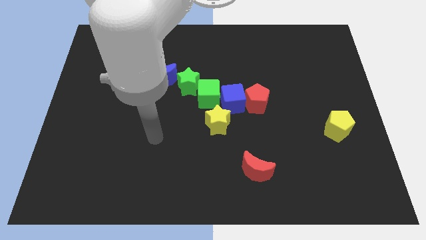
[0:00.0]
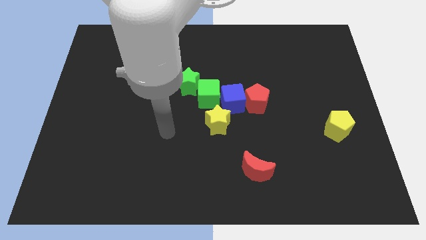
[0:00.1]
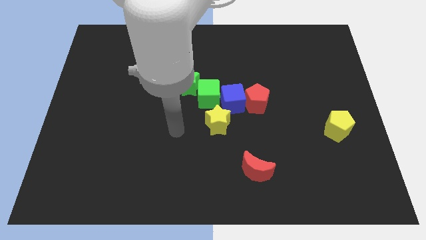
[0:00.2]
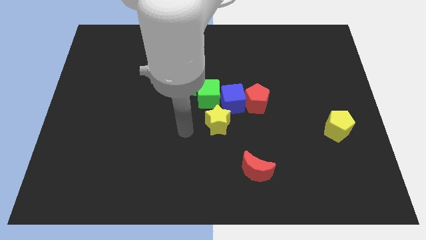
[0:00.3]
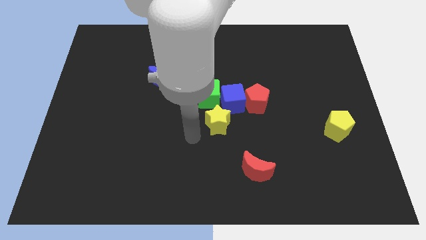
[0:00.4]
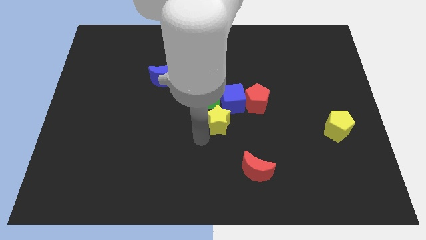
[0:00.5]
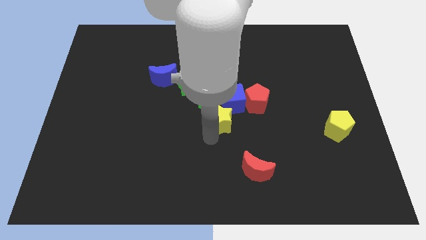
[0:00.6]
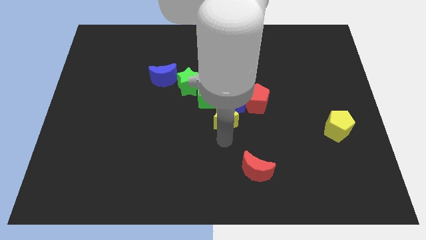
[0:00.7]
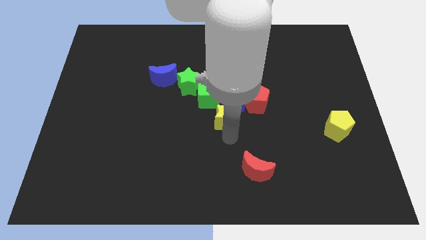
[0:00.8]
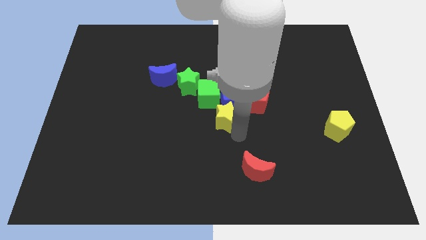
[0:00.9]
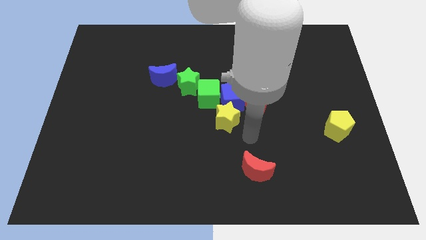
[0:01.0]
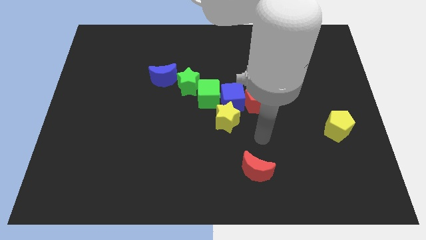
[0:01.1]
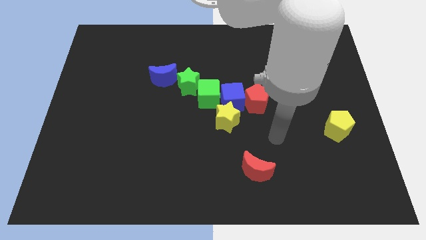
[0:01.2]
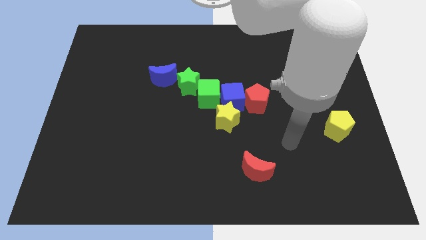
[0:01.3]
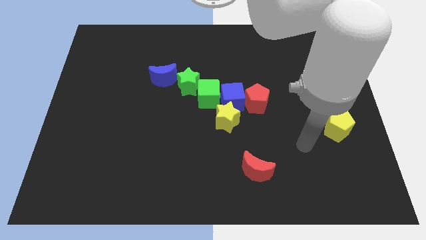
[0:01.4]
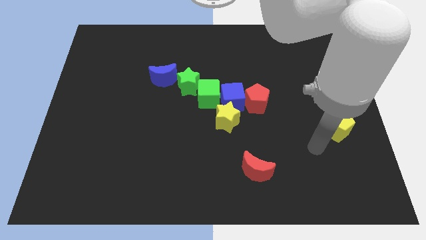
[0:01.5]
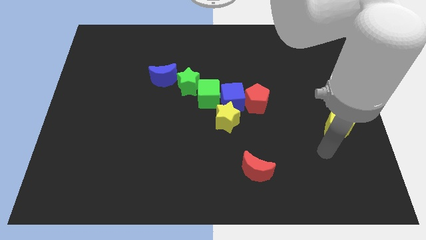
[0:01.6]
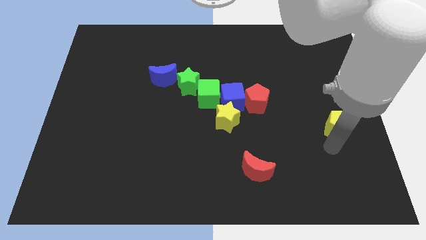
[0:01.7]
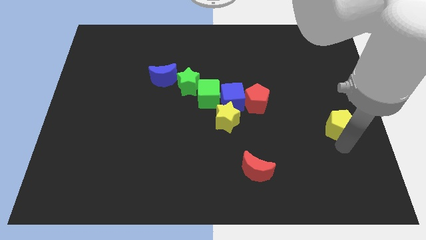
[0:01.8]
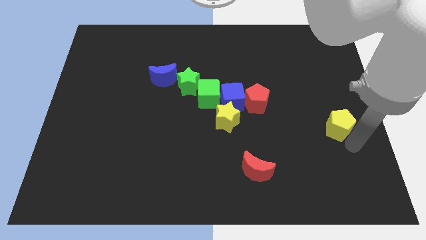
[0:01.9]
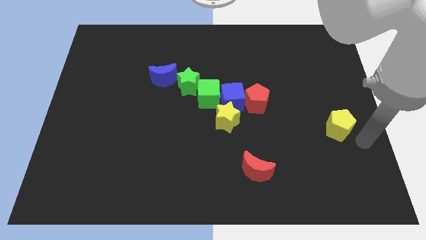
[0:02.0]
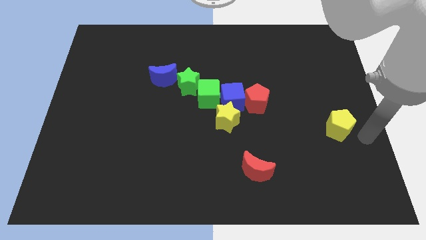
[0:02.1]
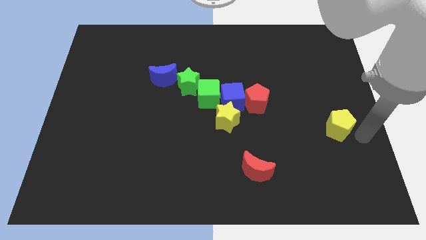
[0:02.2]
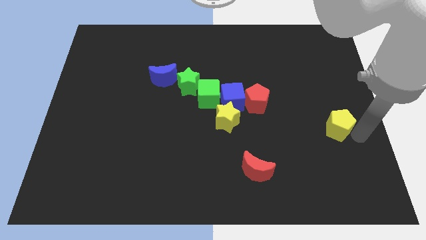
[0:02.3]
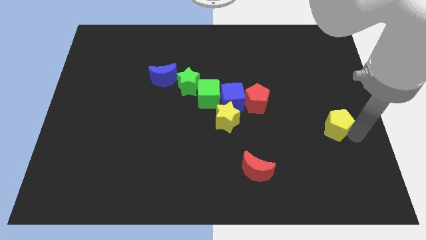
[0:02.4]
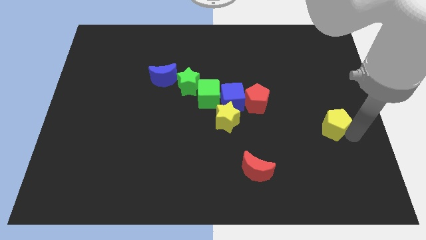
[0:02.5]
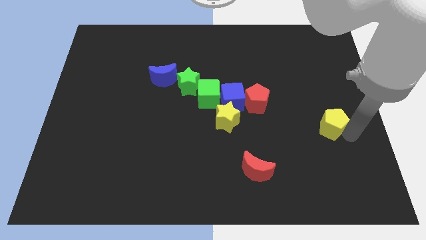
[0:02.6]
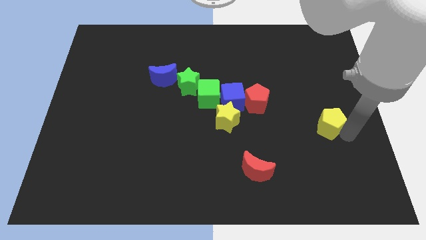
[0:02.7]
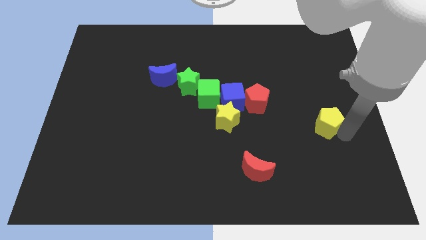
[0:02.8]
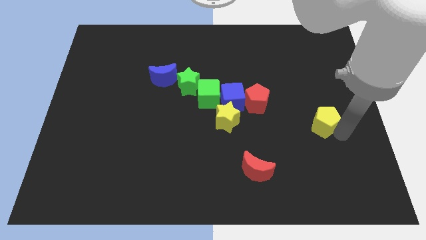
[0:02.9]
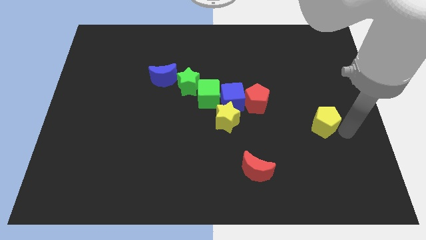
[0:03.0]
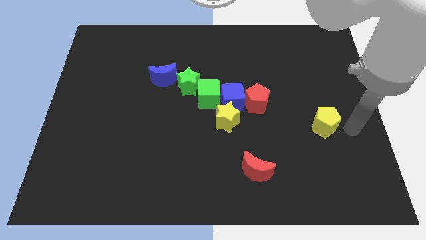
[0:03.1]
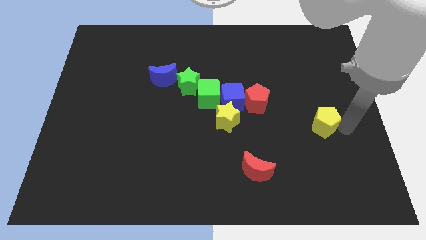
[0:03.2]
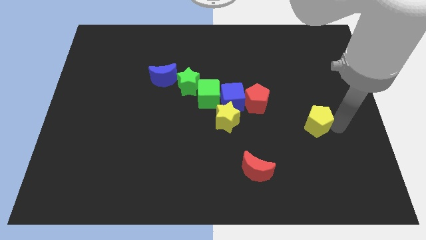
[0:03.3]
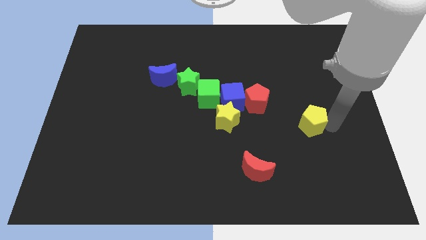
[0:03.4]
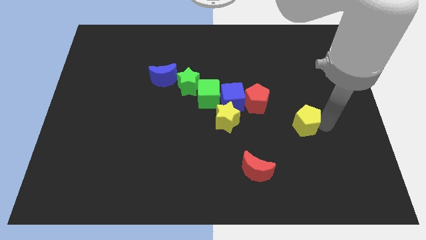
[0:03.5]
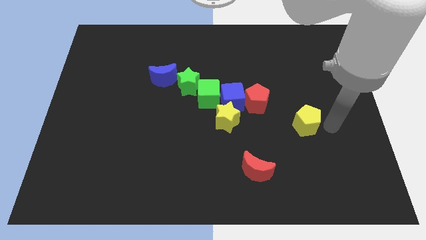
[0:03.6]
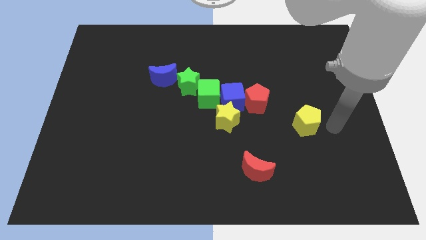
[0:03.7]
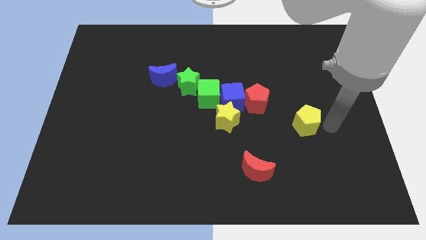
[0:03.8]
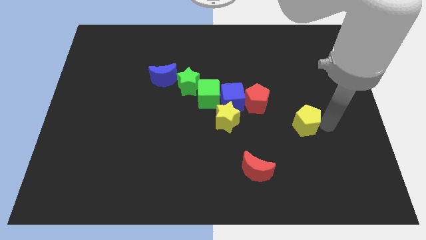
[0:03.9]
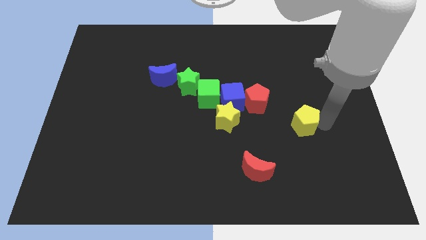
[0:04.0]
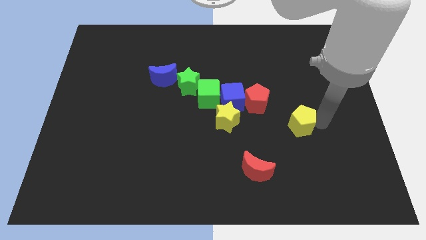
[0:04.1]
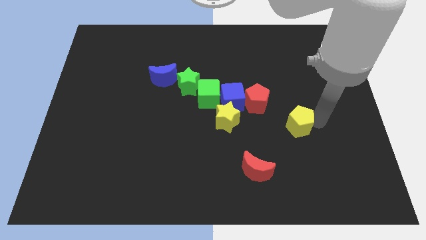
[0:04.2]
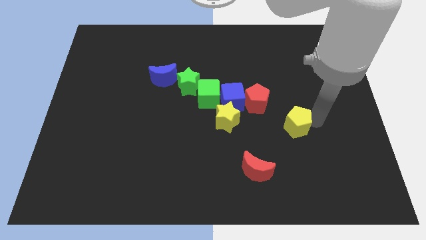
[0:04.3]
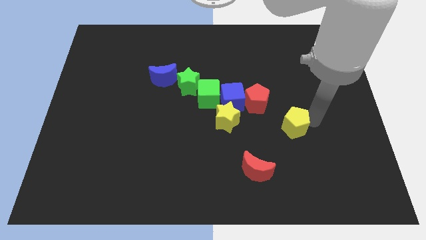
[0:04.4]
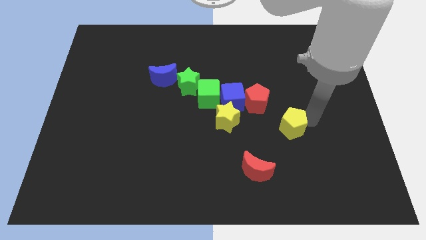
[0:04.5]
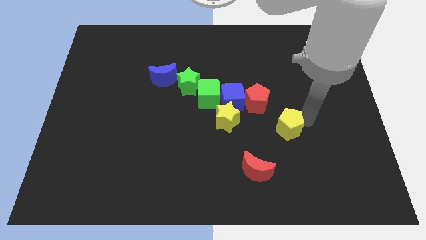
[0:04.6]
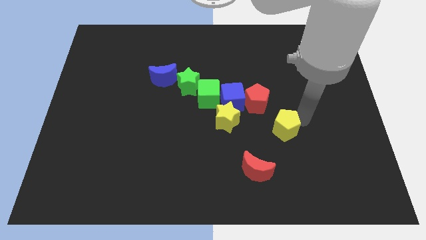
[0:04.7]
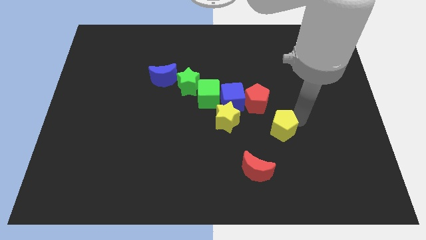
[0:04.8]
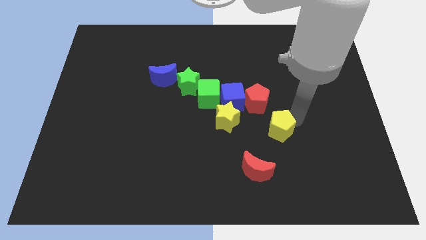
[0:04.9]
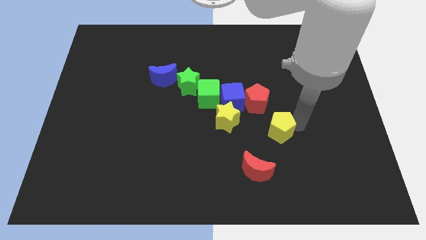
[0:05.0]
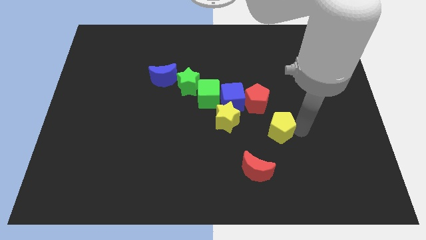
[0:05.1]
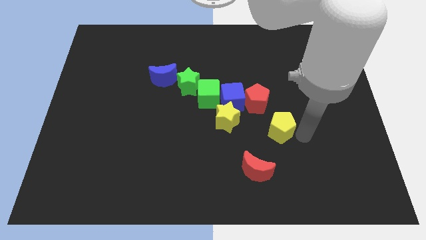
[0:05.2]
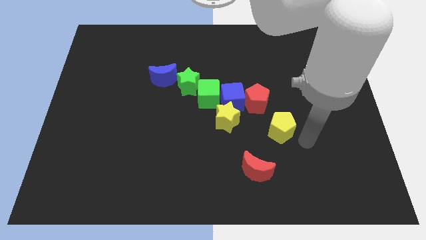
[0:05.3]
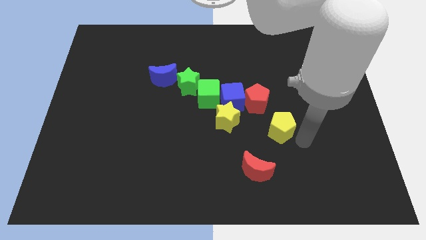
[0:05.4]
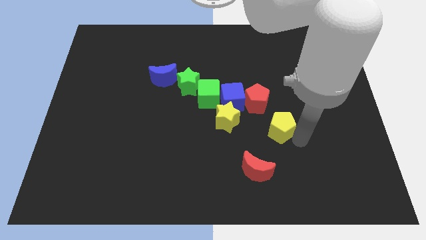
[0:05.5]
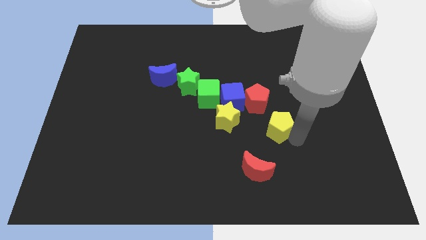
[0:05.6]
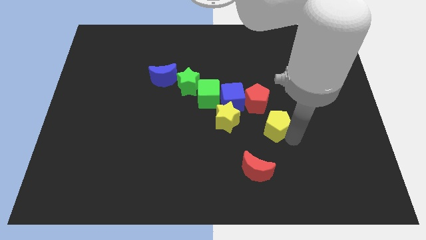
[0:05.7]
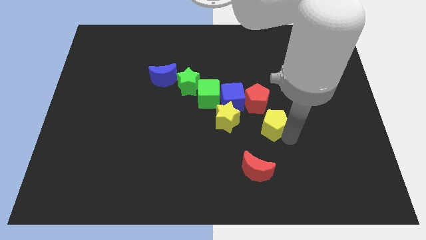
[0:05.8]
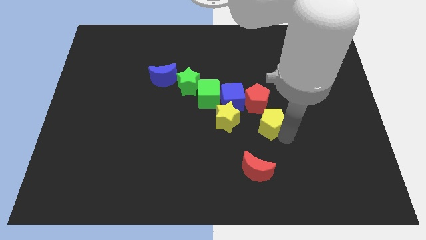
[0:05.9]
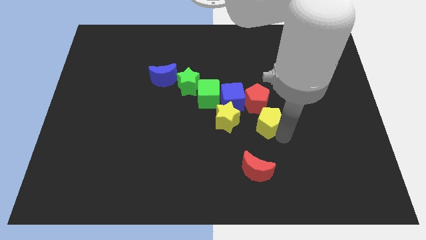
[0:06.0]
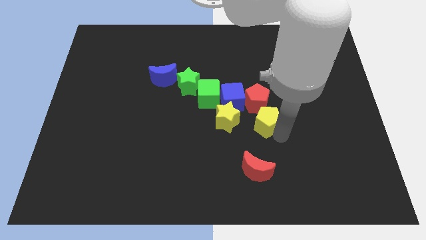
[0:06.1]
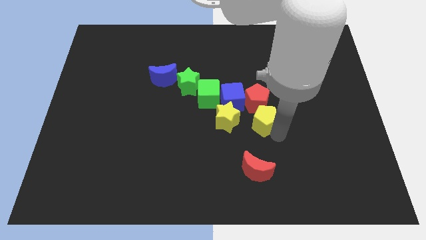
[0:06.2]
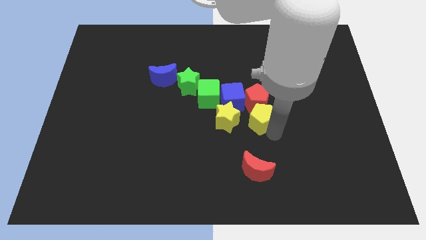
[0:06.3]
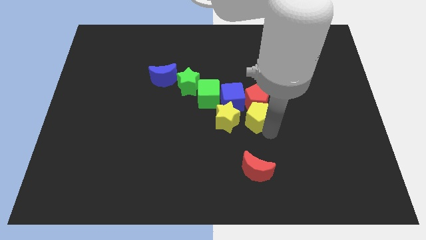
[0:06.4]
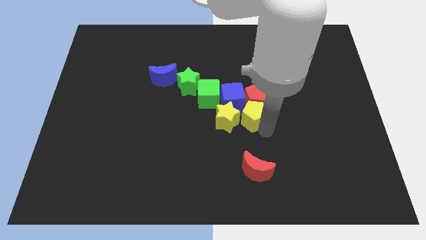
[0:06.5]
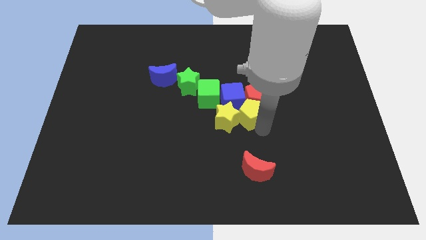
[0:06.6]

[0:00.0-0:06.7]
push the yellow pentagon close to the blue cube

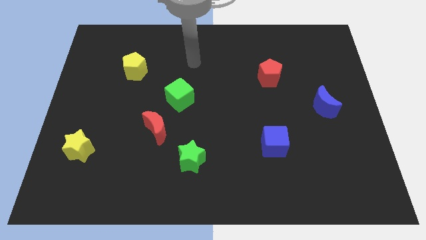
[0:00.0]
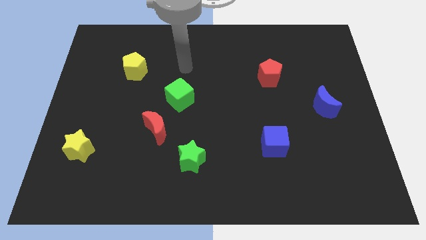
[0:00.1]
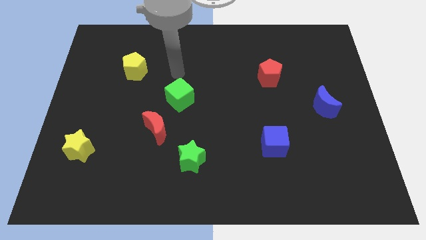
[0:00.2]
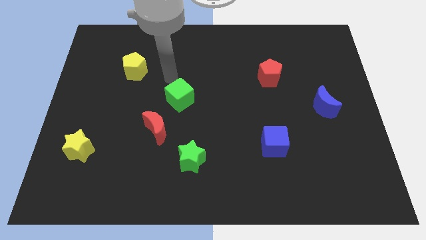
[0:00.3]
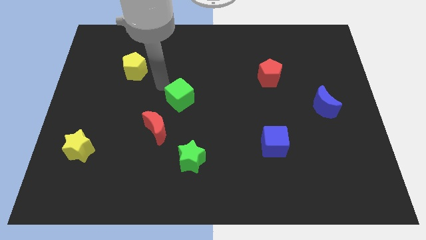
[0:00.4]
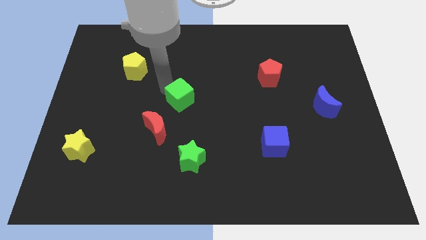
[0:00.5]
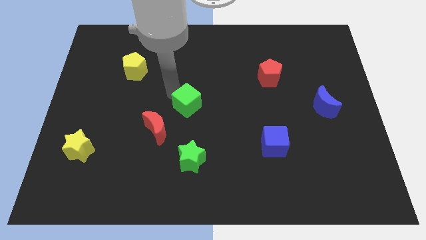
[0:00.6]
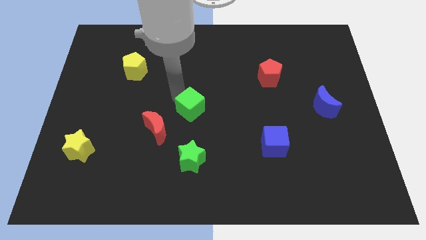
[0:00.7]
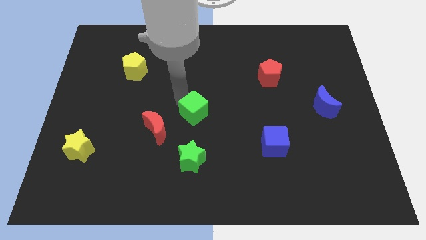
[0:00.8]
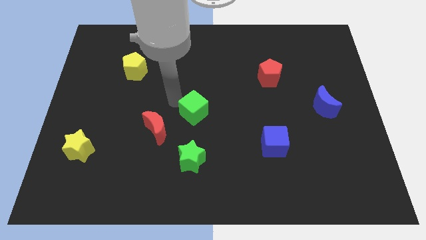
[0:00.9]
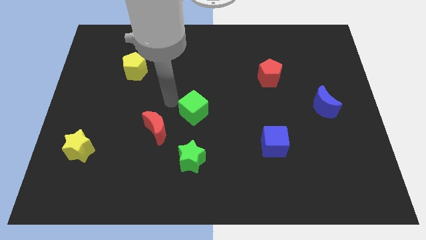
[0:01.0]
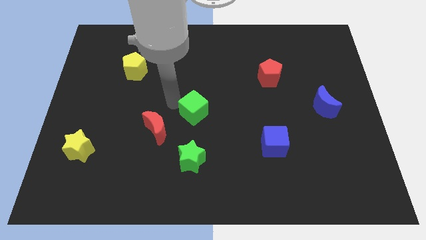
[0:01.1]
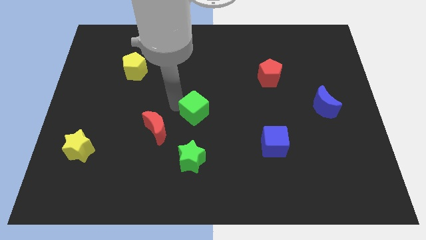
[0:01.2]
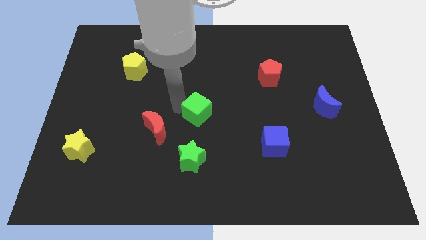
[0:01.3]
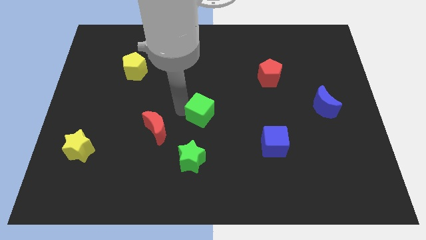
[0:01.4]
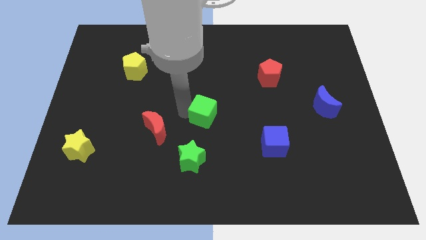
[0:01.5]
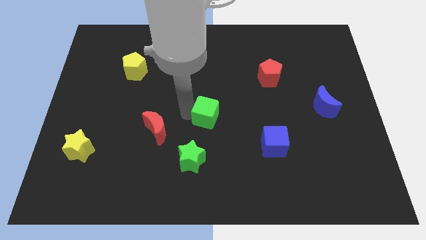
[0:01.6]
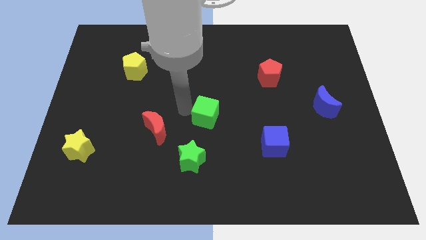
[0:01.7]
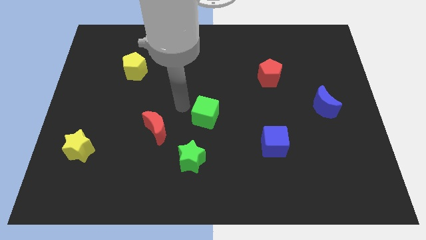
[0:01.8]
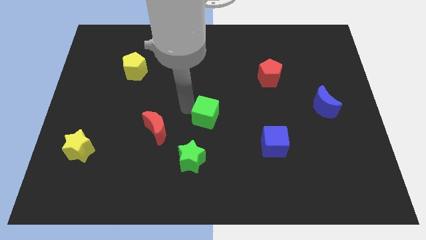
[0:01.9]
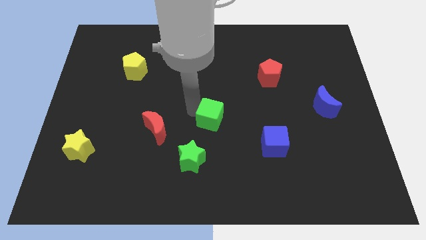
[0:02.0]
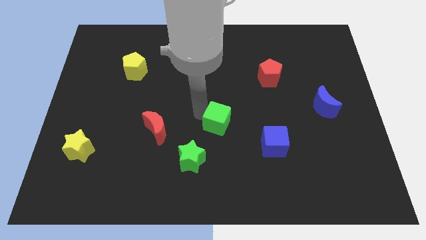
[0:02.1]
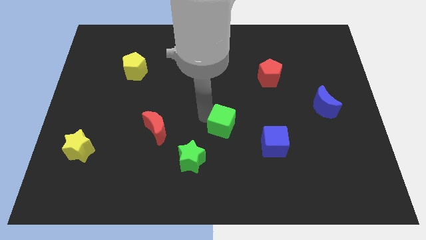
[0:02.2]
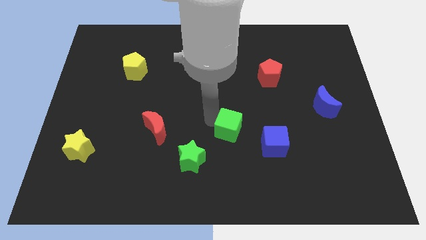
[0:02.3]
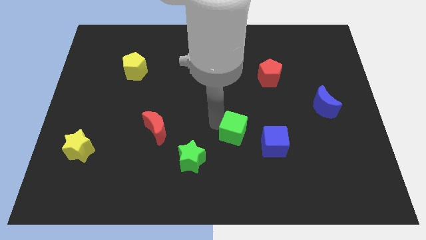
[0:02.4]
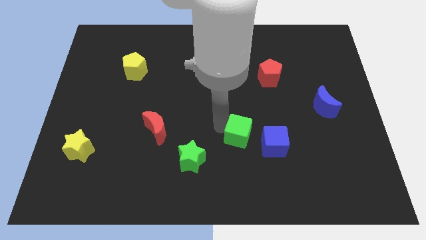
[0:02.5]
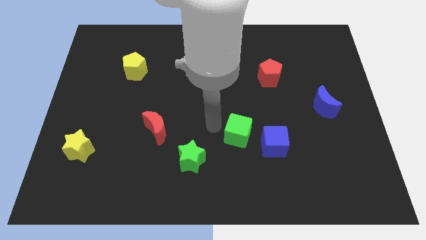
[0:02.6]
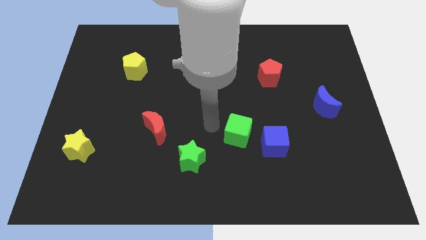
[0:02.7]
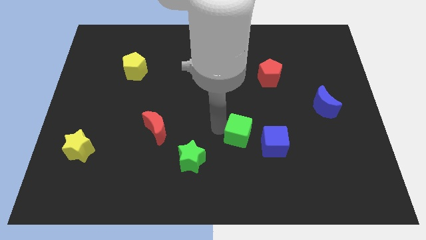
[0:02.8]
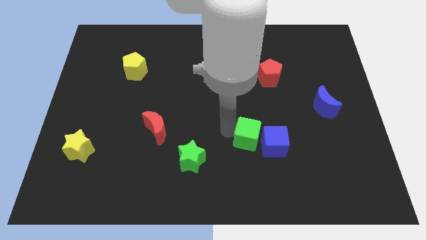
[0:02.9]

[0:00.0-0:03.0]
put the green cube close to the blue cube
